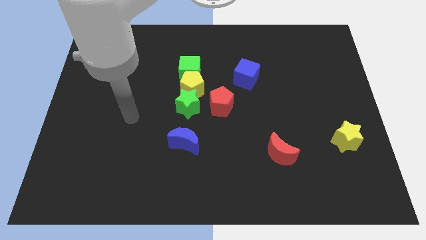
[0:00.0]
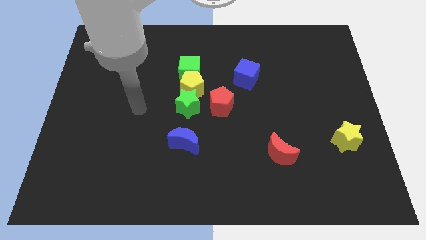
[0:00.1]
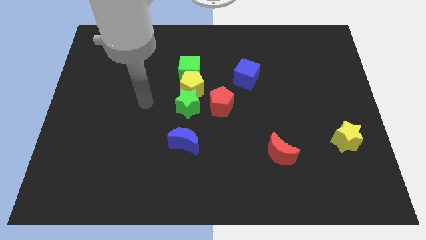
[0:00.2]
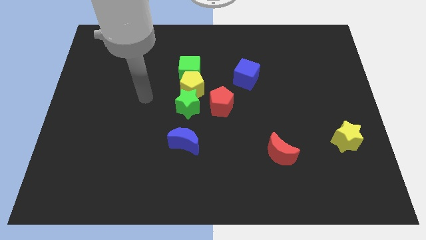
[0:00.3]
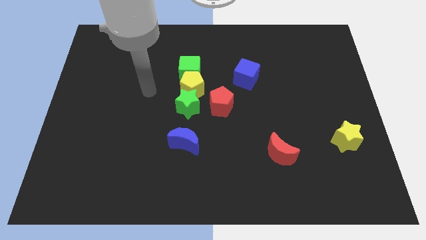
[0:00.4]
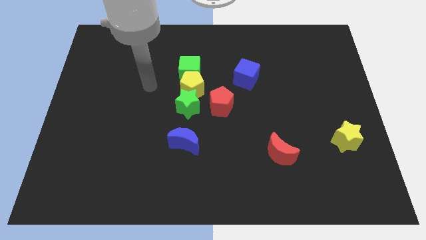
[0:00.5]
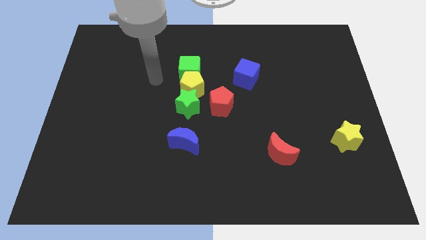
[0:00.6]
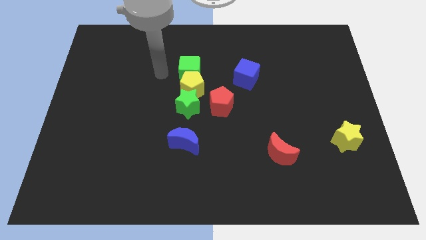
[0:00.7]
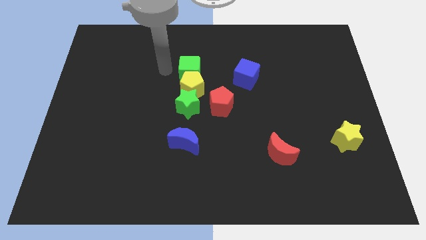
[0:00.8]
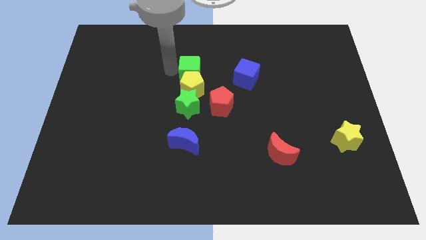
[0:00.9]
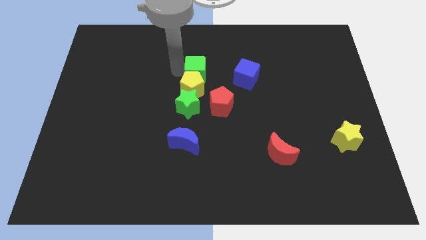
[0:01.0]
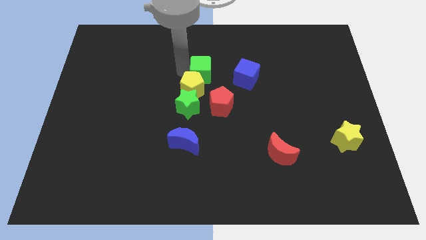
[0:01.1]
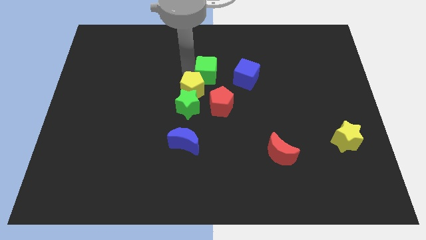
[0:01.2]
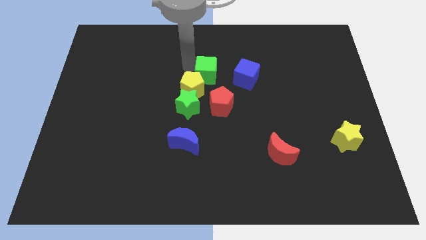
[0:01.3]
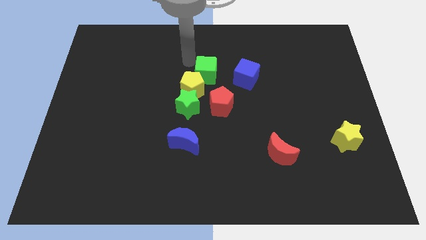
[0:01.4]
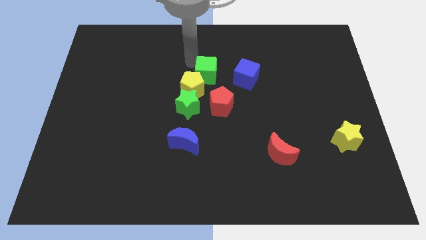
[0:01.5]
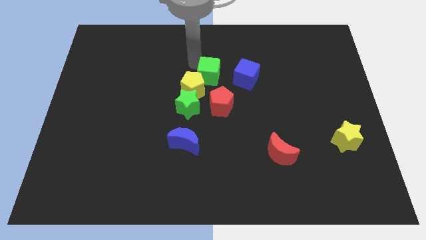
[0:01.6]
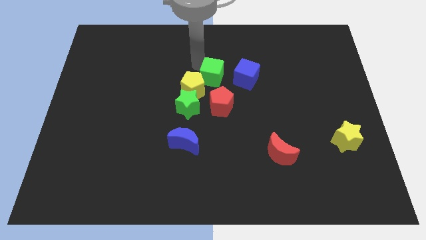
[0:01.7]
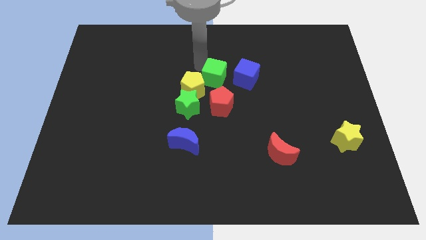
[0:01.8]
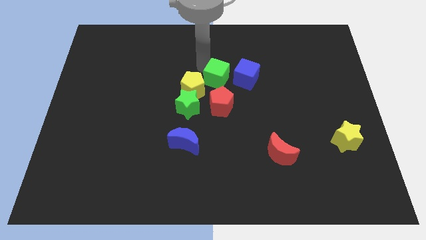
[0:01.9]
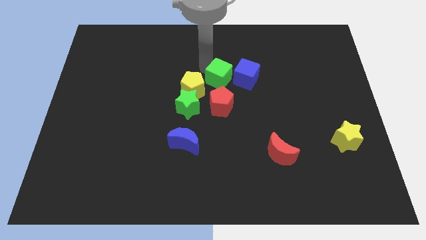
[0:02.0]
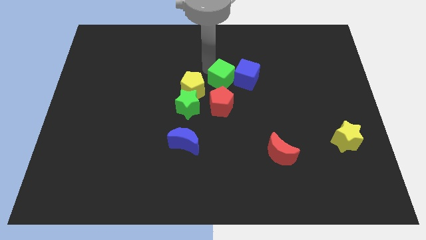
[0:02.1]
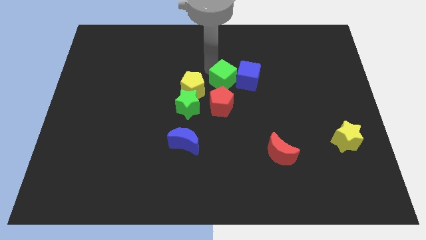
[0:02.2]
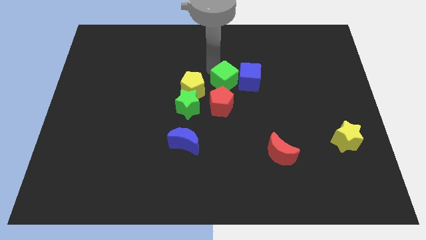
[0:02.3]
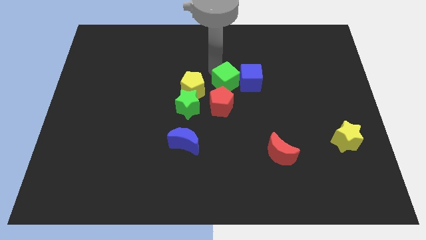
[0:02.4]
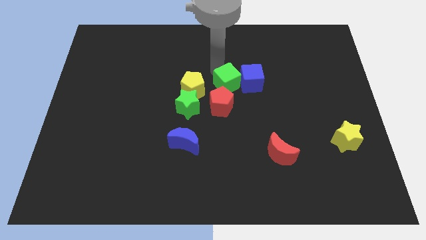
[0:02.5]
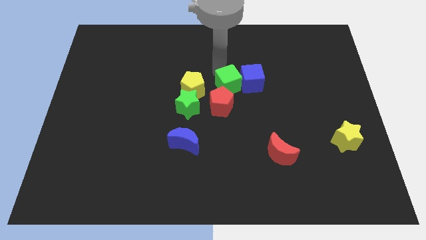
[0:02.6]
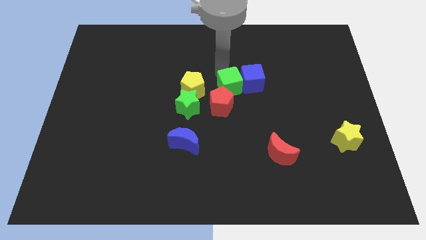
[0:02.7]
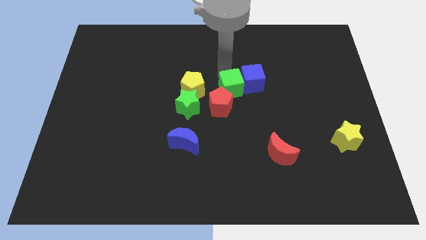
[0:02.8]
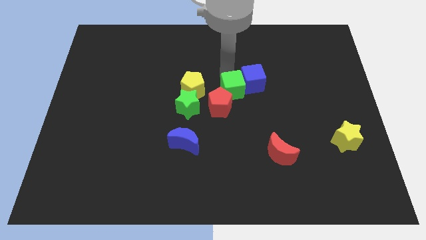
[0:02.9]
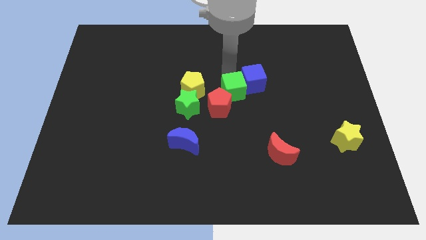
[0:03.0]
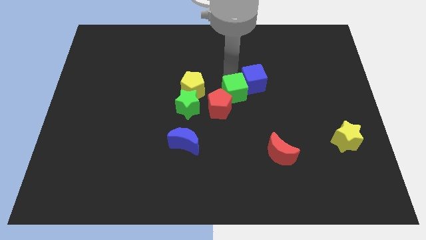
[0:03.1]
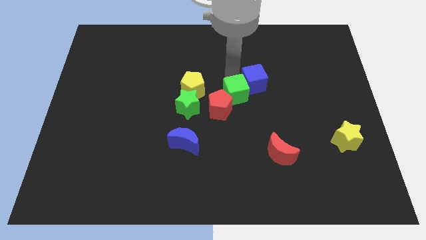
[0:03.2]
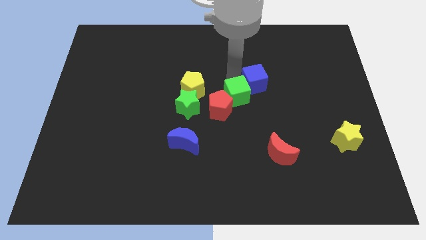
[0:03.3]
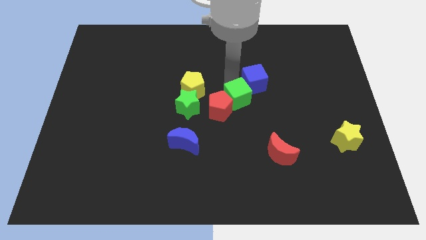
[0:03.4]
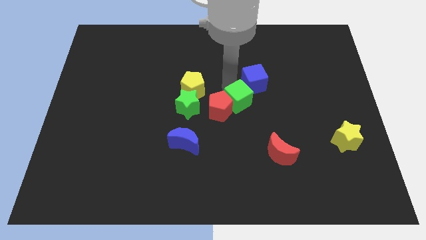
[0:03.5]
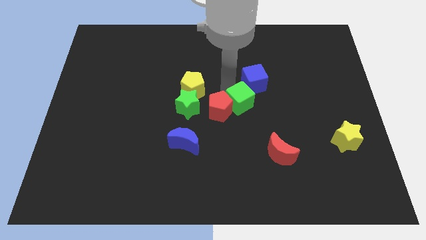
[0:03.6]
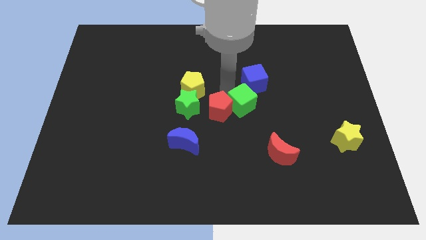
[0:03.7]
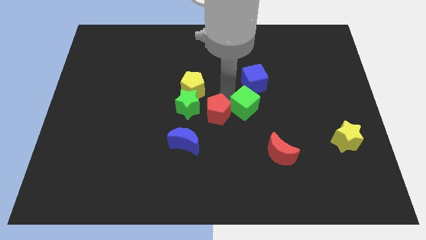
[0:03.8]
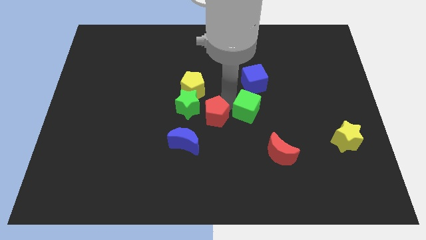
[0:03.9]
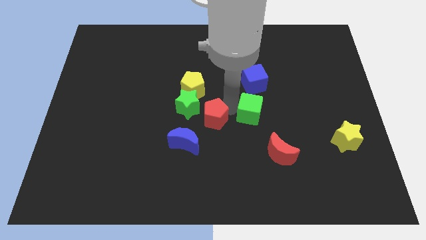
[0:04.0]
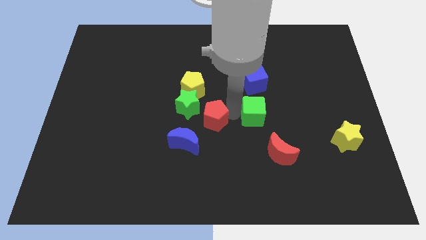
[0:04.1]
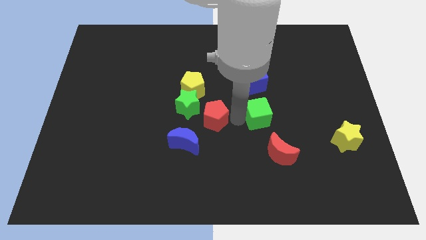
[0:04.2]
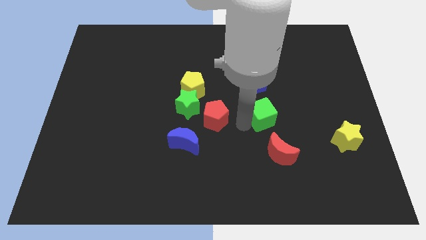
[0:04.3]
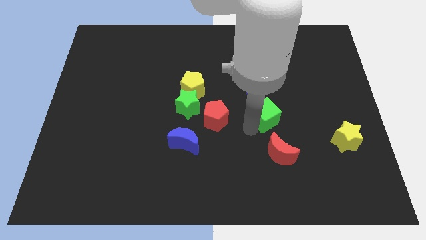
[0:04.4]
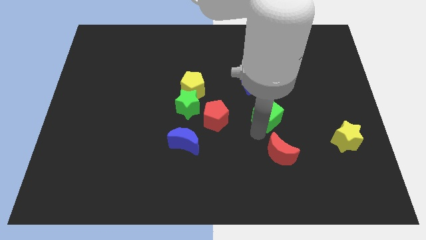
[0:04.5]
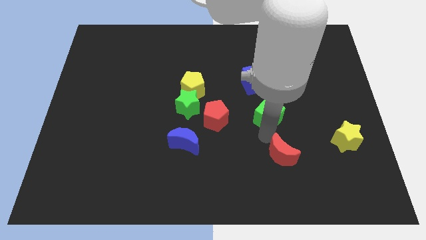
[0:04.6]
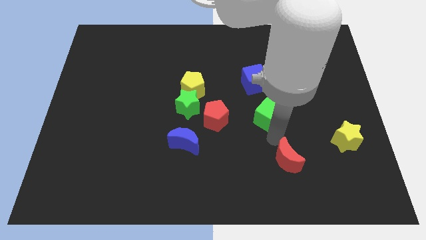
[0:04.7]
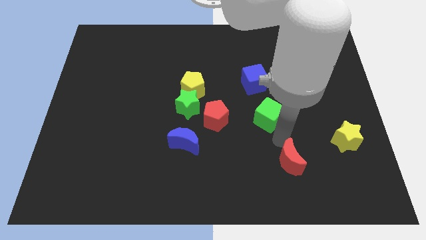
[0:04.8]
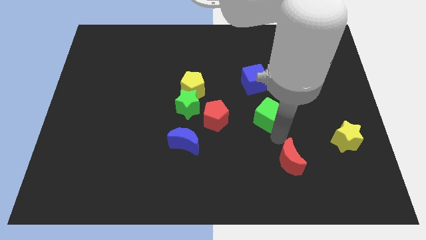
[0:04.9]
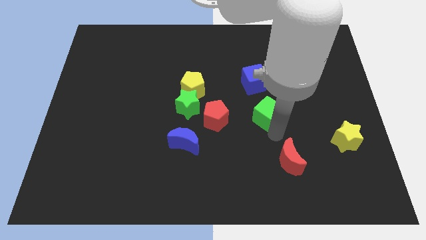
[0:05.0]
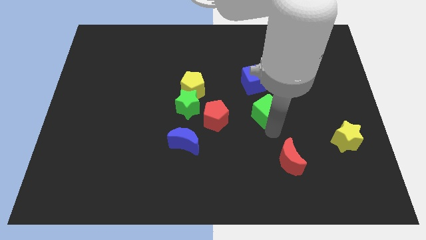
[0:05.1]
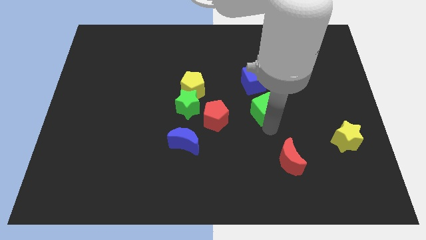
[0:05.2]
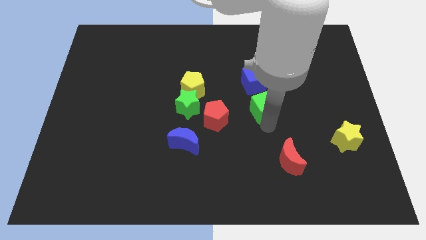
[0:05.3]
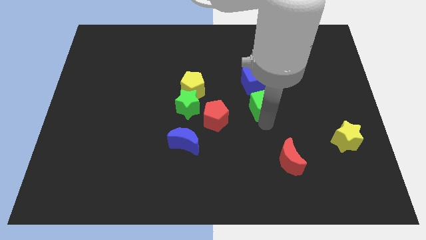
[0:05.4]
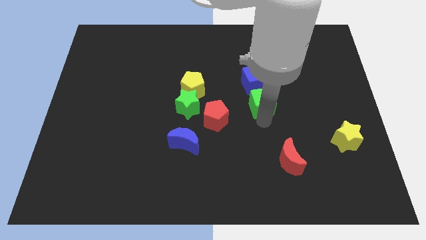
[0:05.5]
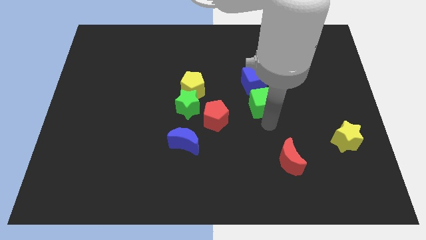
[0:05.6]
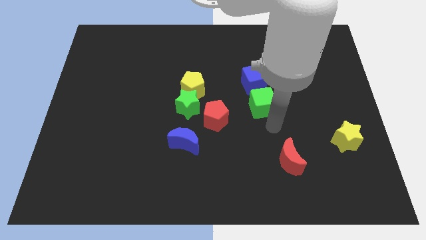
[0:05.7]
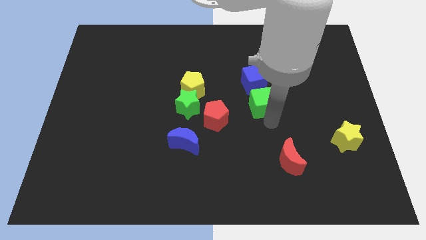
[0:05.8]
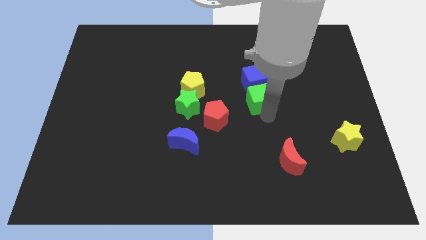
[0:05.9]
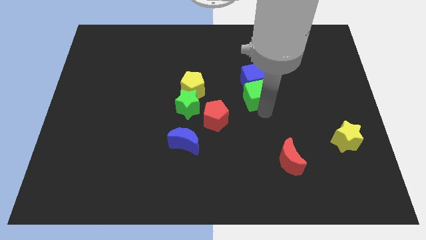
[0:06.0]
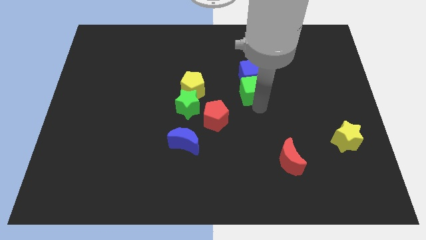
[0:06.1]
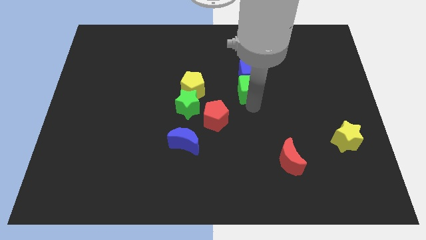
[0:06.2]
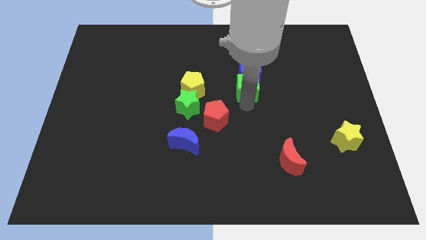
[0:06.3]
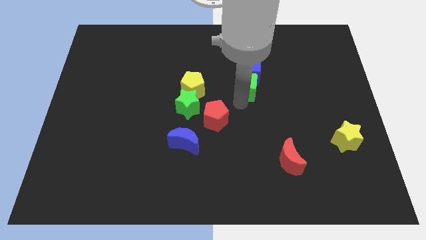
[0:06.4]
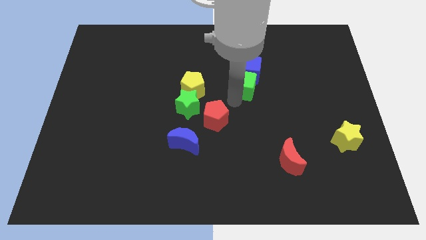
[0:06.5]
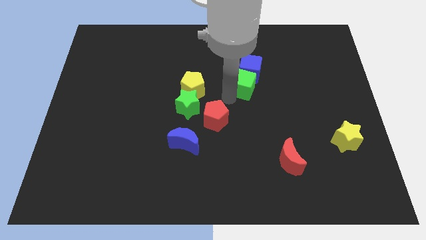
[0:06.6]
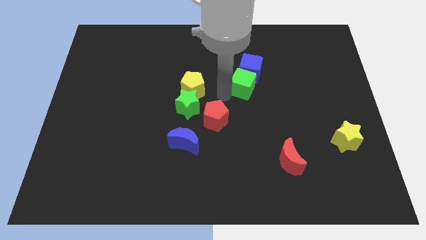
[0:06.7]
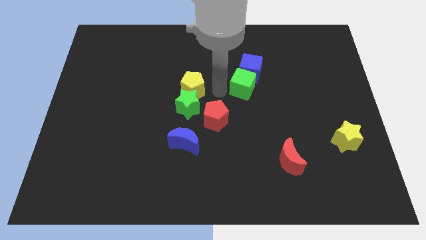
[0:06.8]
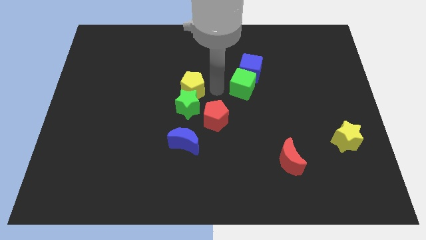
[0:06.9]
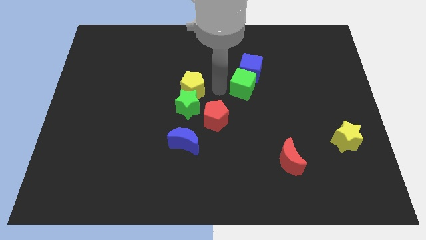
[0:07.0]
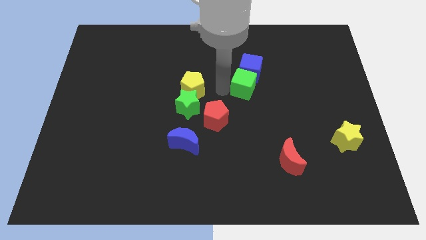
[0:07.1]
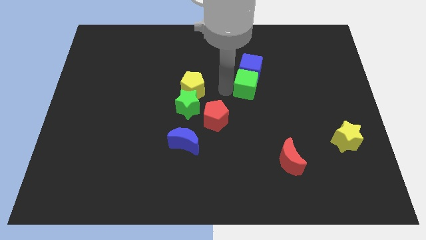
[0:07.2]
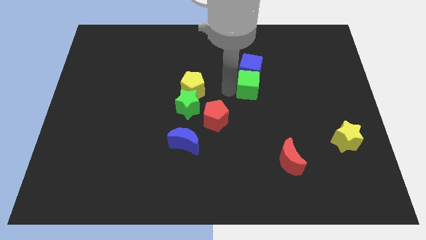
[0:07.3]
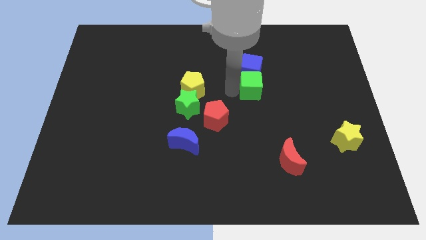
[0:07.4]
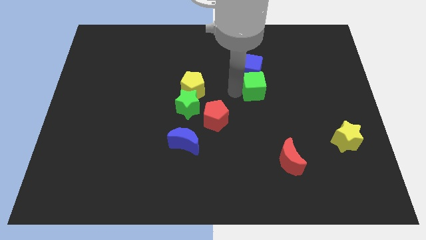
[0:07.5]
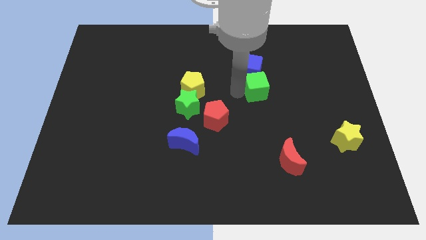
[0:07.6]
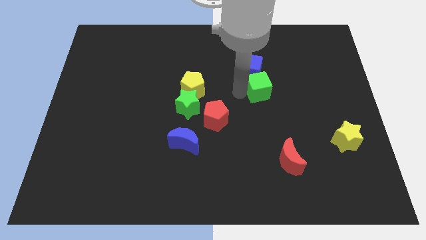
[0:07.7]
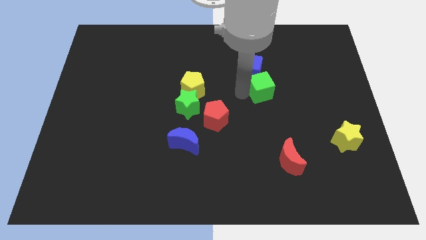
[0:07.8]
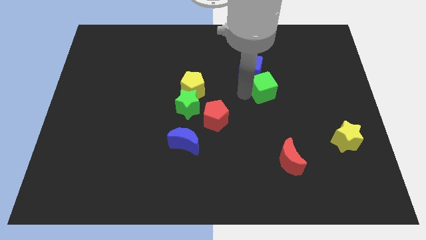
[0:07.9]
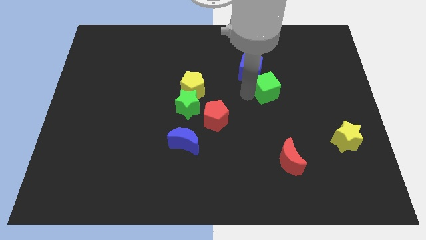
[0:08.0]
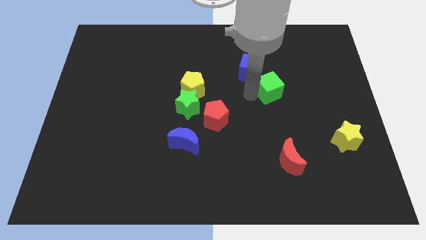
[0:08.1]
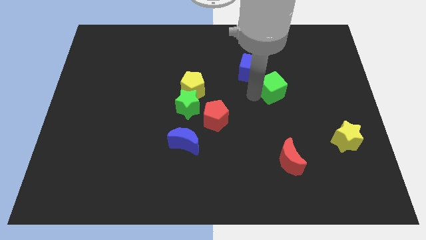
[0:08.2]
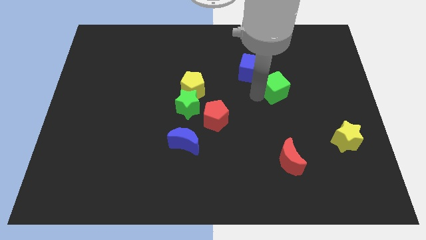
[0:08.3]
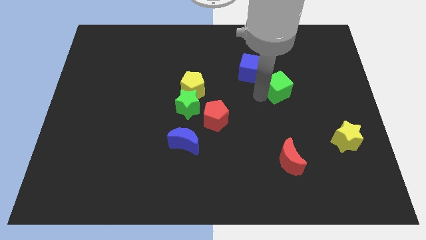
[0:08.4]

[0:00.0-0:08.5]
push the green cube to the right
